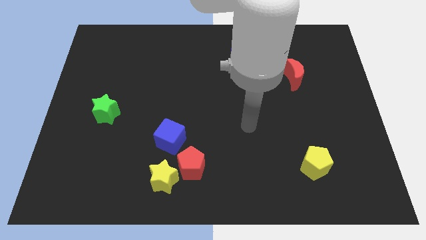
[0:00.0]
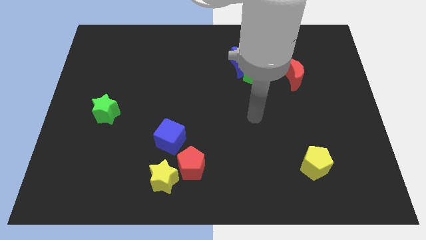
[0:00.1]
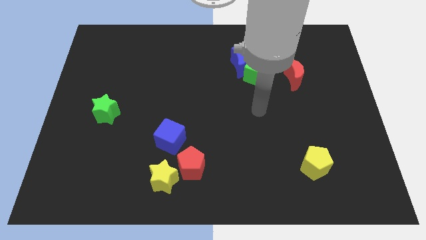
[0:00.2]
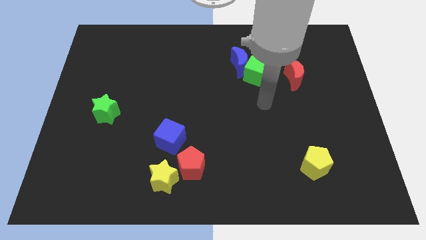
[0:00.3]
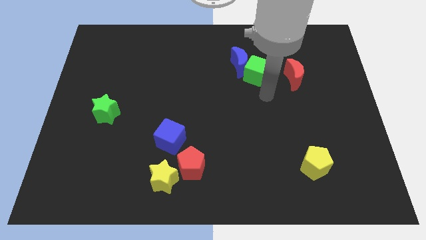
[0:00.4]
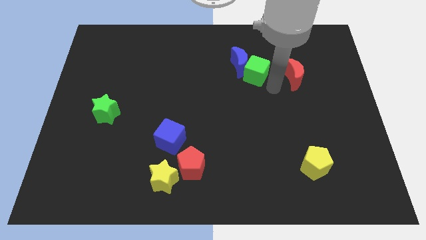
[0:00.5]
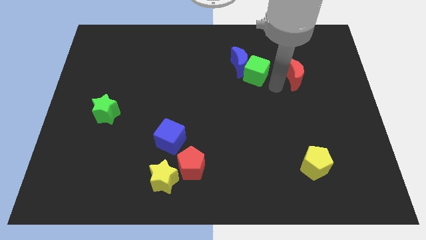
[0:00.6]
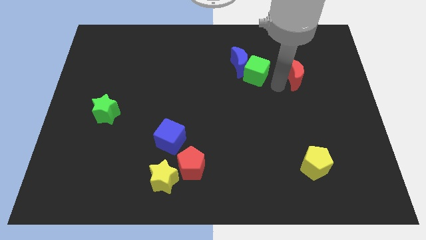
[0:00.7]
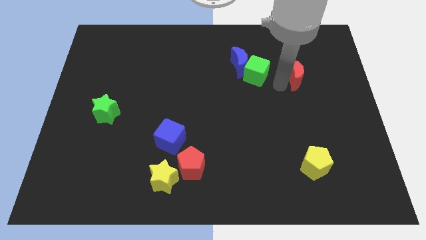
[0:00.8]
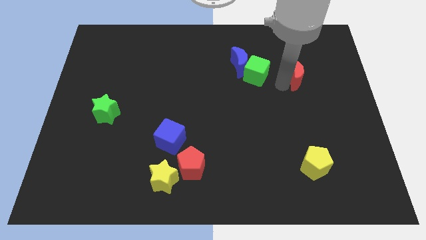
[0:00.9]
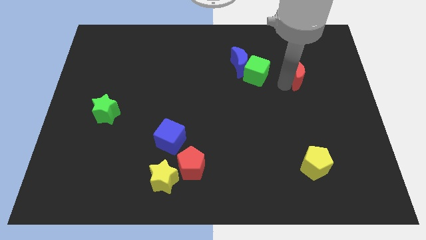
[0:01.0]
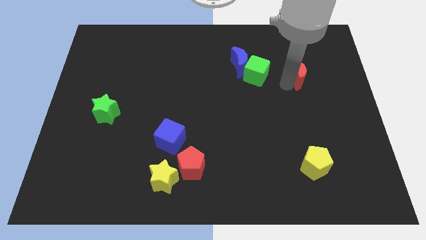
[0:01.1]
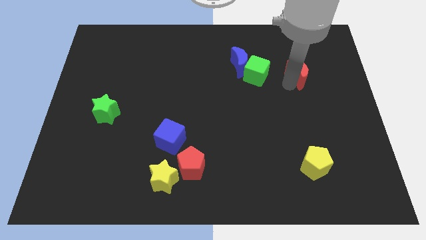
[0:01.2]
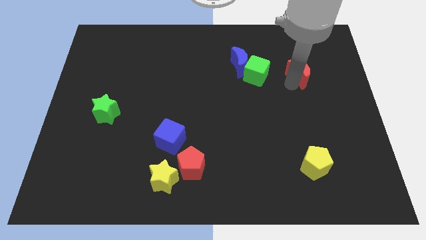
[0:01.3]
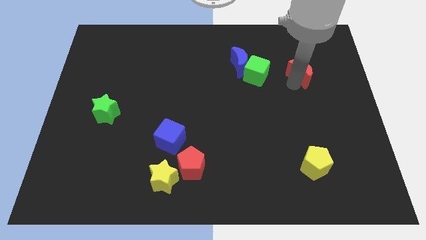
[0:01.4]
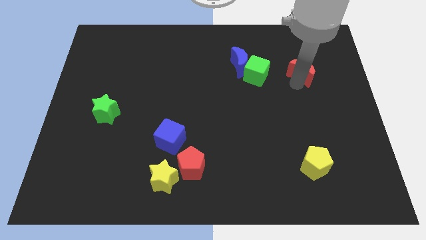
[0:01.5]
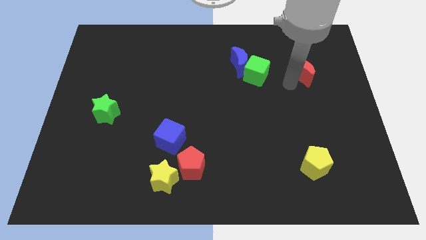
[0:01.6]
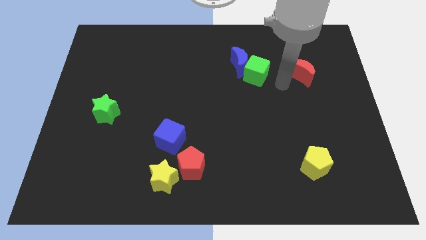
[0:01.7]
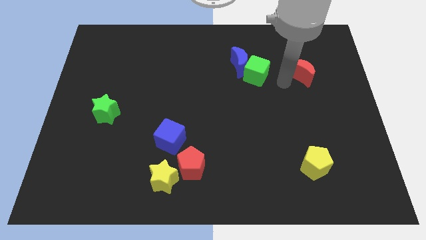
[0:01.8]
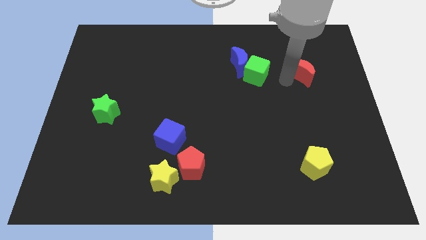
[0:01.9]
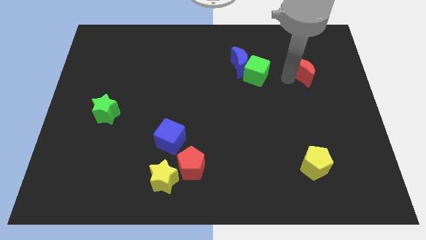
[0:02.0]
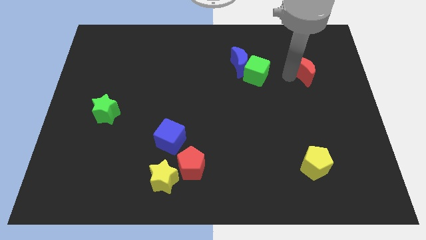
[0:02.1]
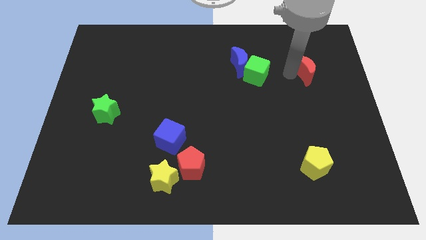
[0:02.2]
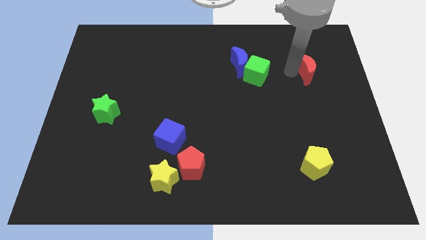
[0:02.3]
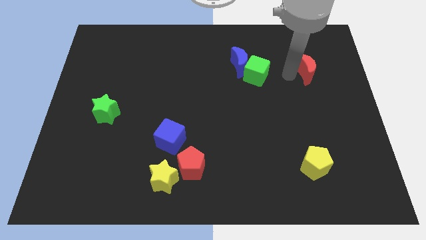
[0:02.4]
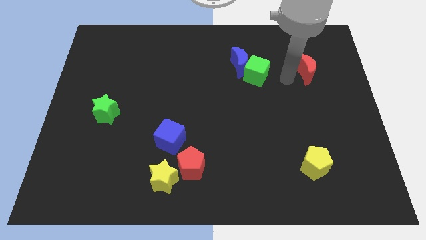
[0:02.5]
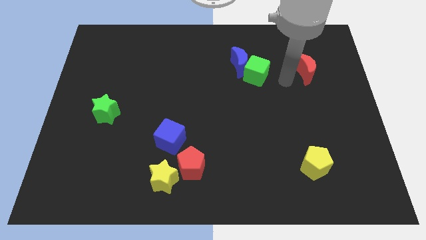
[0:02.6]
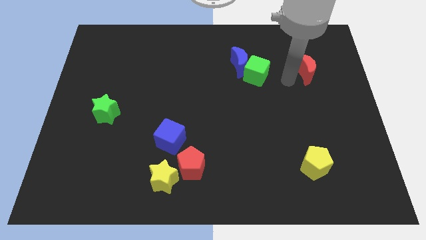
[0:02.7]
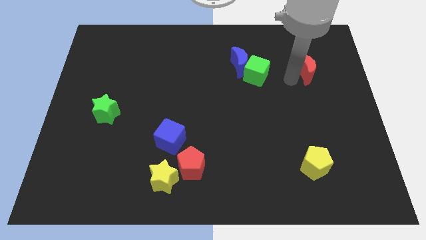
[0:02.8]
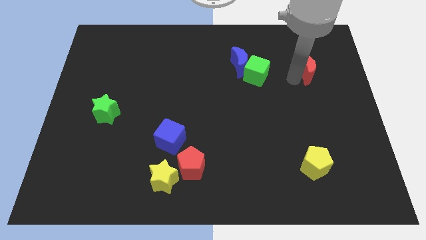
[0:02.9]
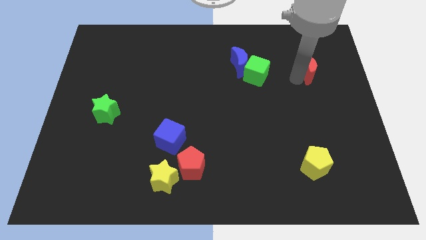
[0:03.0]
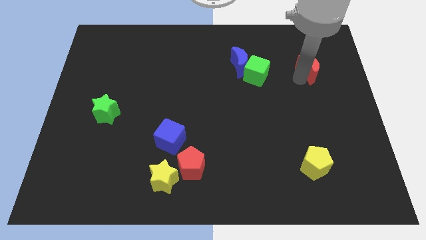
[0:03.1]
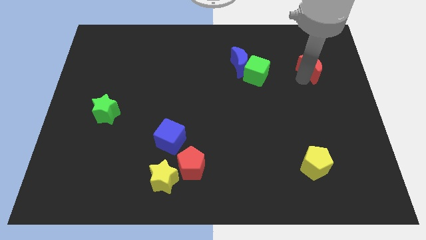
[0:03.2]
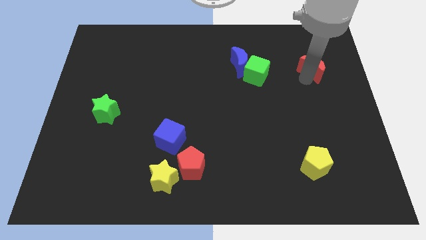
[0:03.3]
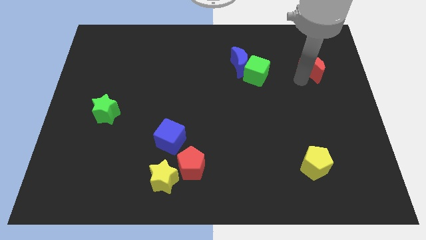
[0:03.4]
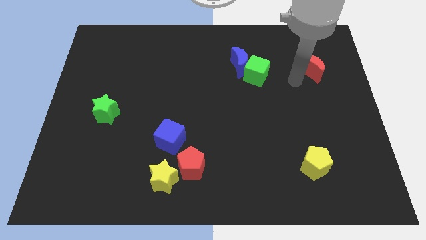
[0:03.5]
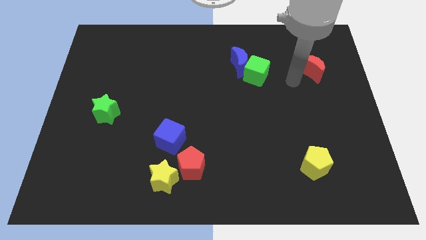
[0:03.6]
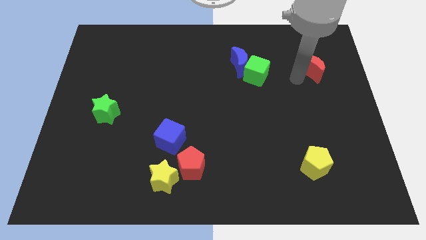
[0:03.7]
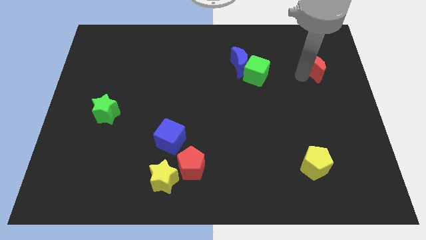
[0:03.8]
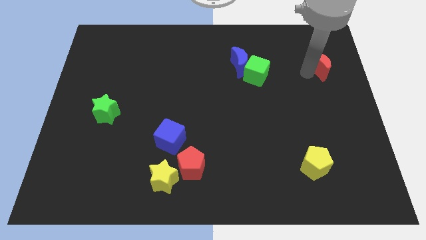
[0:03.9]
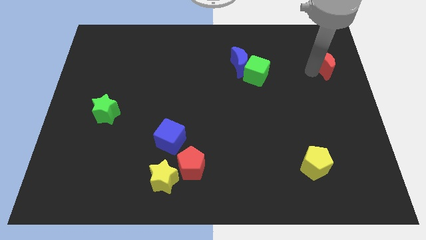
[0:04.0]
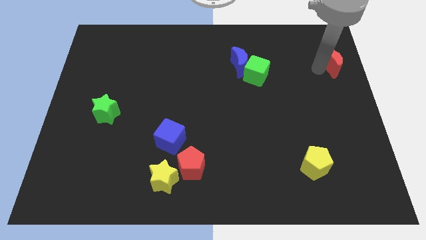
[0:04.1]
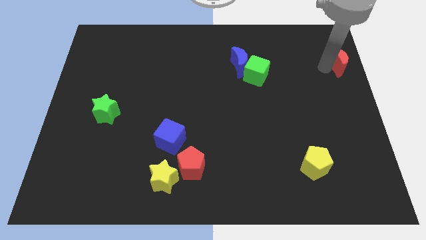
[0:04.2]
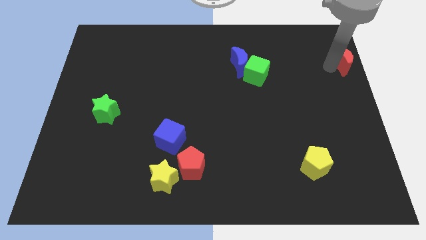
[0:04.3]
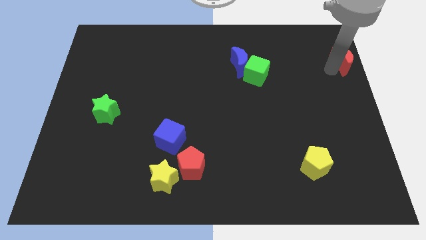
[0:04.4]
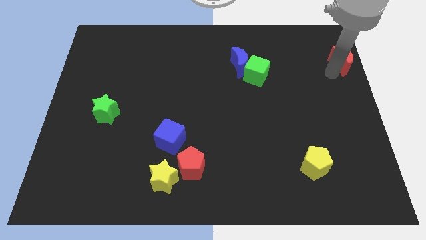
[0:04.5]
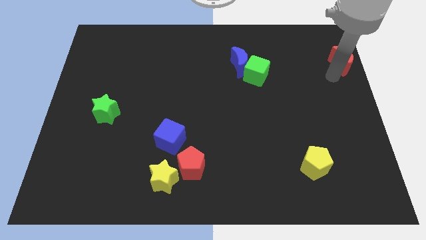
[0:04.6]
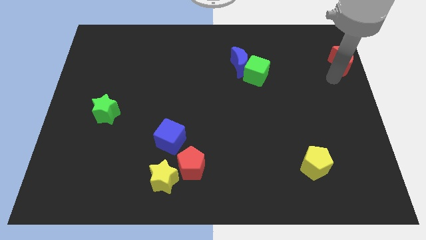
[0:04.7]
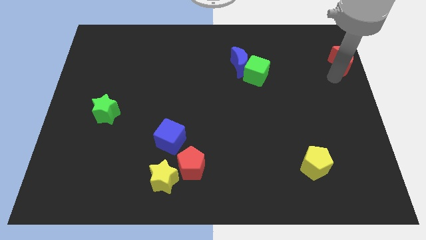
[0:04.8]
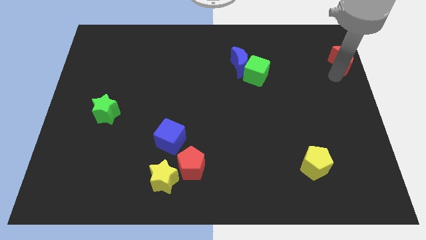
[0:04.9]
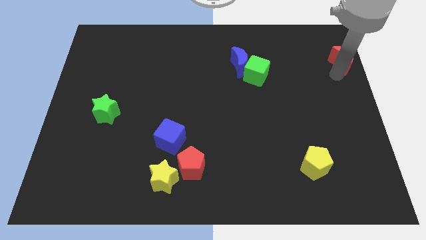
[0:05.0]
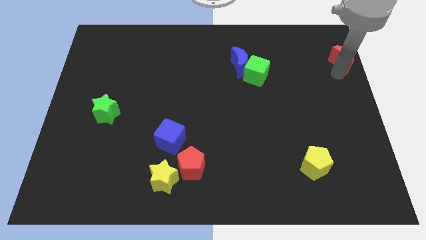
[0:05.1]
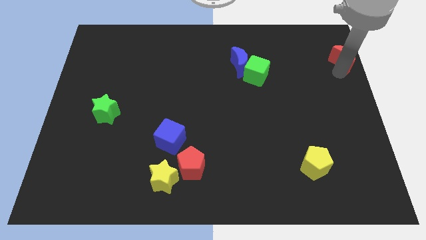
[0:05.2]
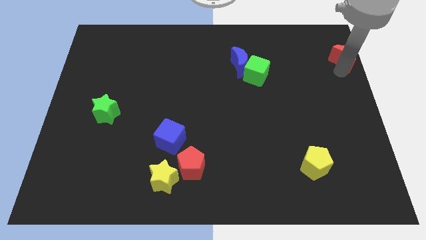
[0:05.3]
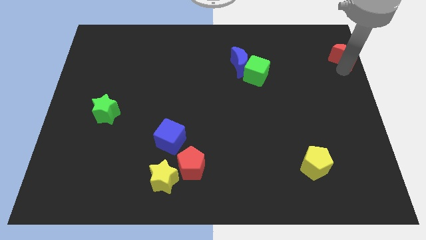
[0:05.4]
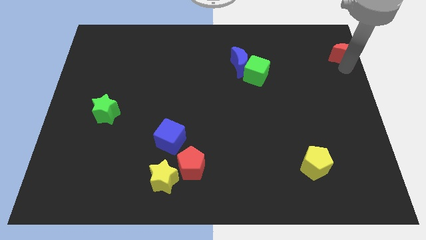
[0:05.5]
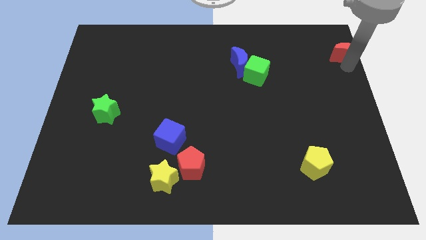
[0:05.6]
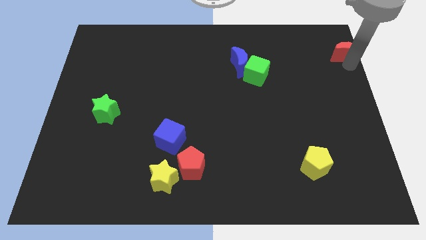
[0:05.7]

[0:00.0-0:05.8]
put the red moon to the upper right corner

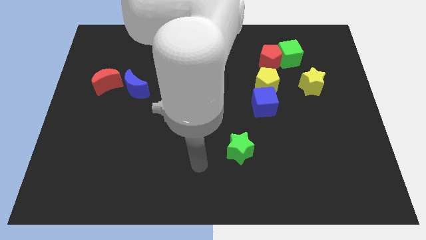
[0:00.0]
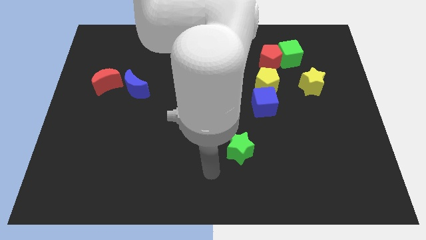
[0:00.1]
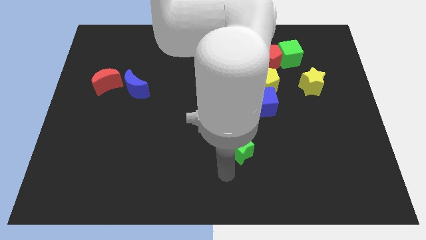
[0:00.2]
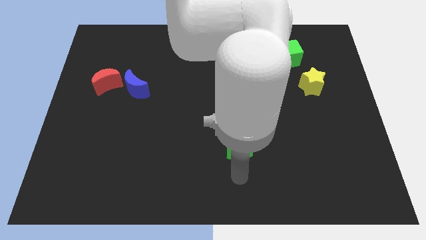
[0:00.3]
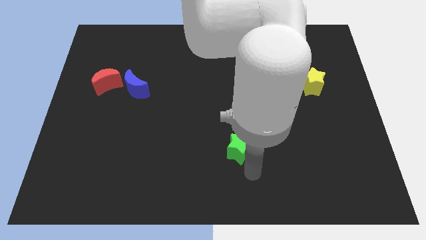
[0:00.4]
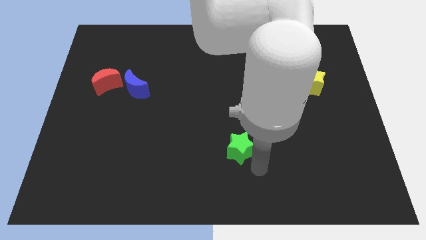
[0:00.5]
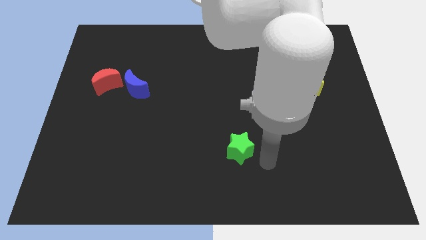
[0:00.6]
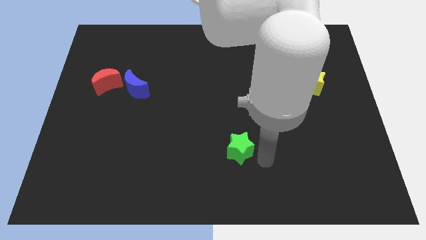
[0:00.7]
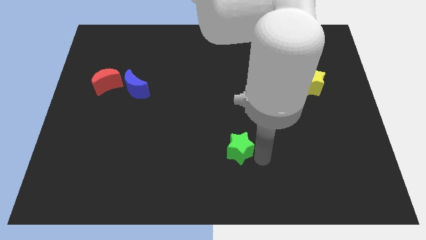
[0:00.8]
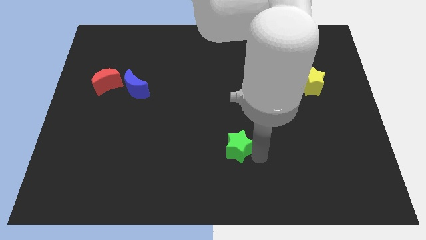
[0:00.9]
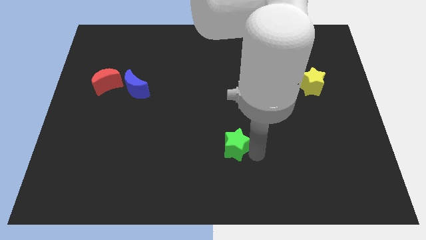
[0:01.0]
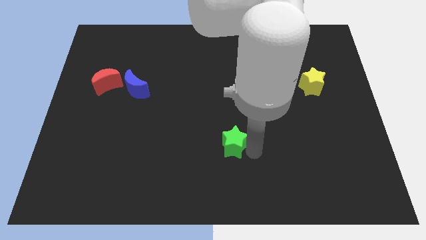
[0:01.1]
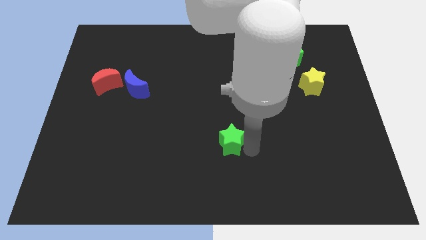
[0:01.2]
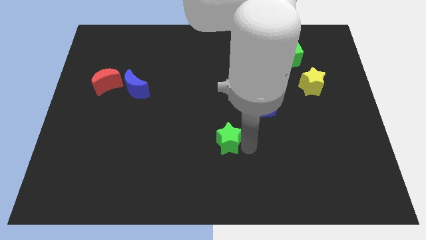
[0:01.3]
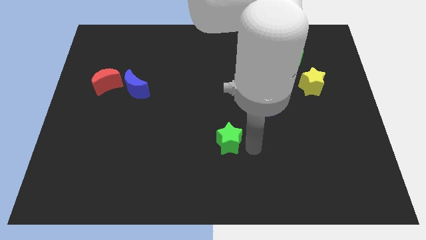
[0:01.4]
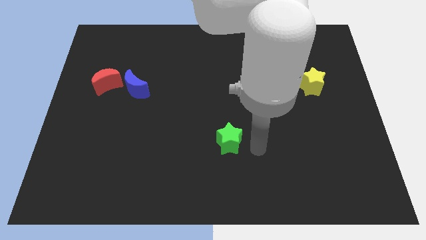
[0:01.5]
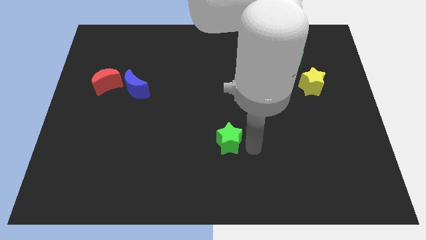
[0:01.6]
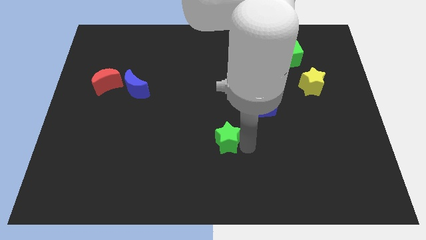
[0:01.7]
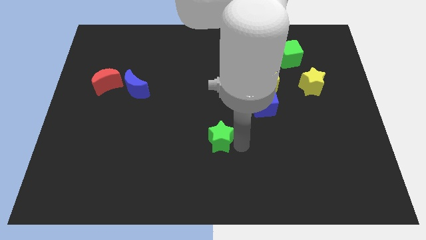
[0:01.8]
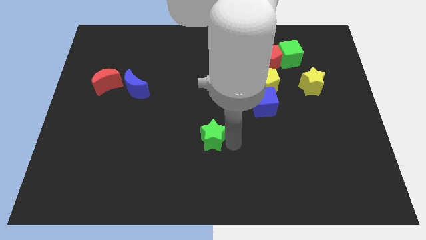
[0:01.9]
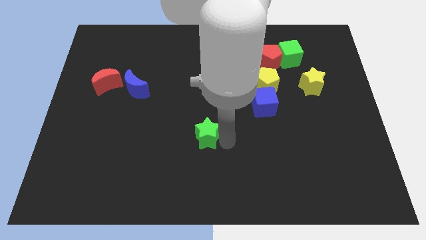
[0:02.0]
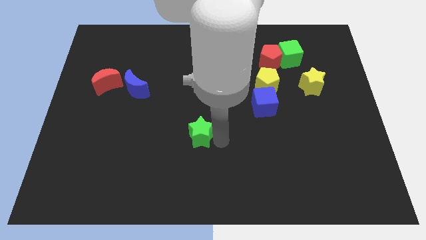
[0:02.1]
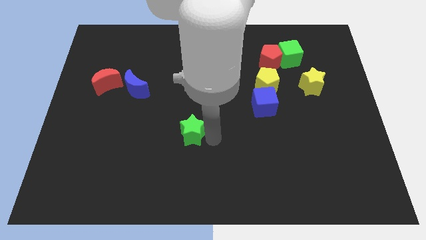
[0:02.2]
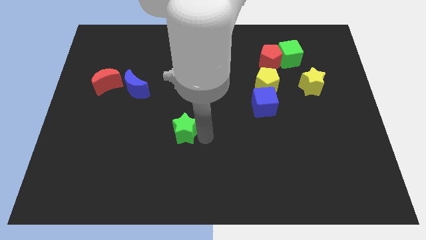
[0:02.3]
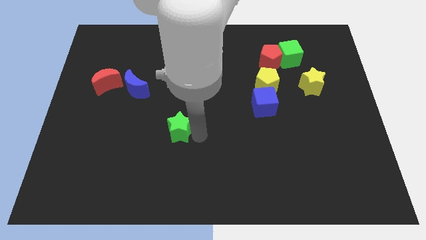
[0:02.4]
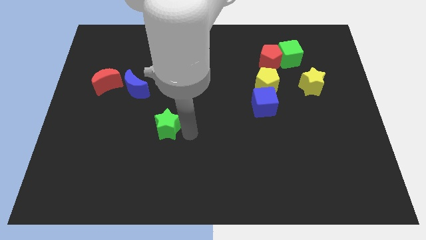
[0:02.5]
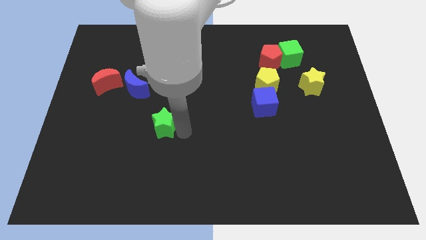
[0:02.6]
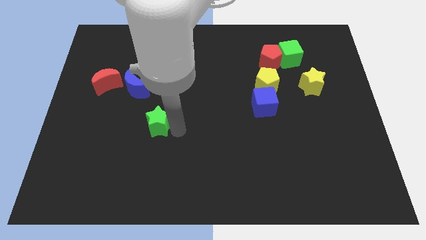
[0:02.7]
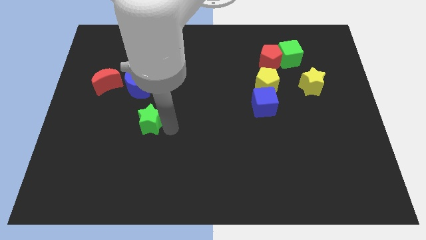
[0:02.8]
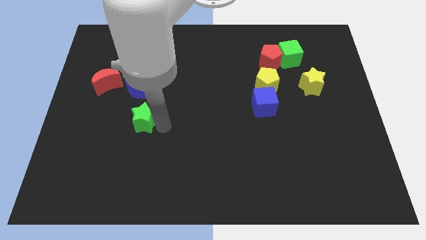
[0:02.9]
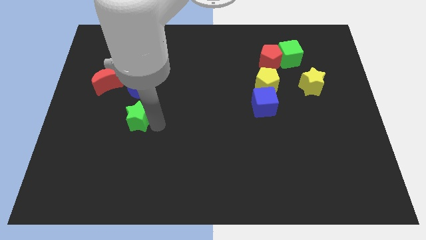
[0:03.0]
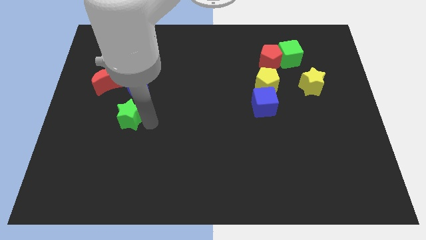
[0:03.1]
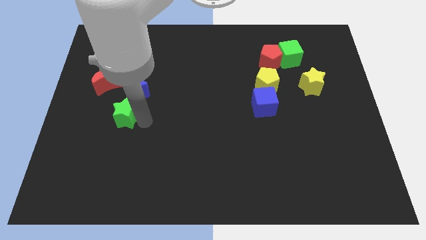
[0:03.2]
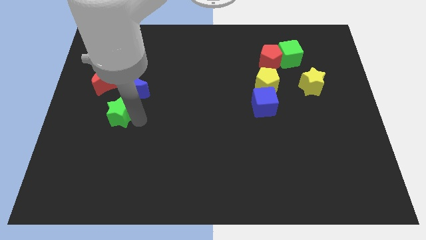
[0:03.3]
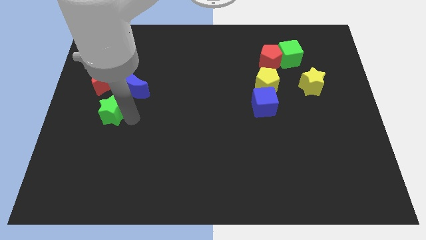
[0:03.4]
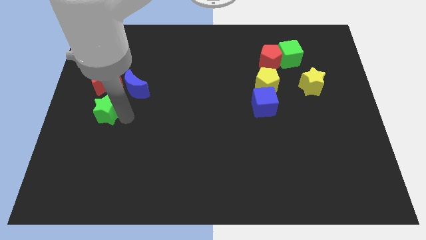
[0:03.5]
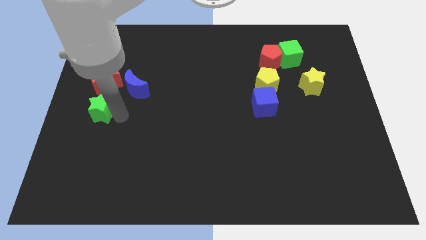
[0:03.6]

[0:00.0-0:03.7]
slide the green star to the center left
